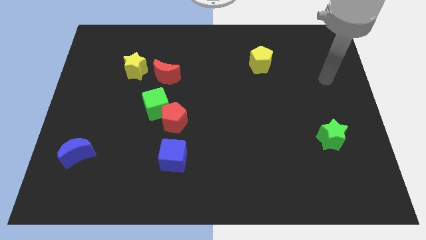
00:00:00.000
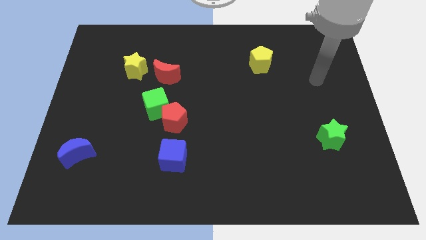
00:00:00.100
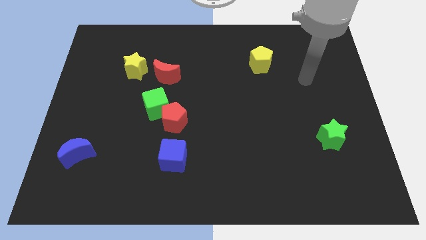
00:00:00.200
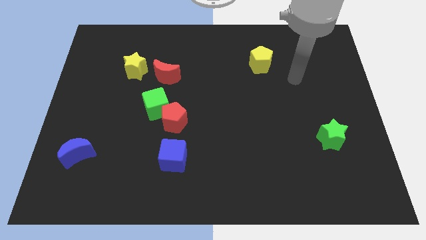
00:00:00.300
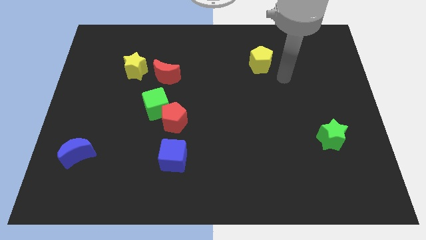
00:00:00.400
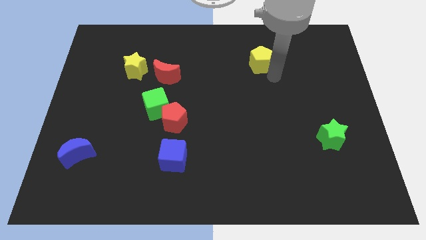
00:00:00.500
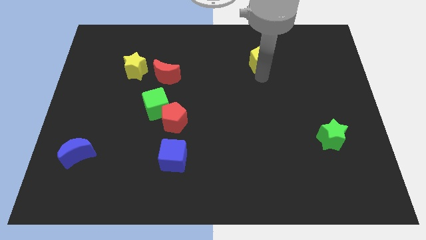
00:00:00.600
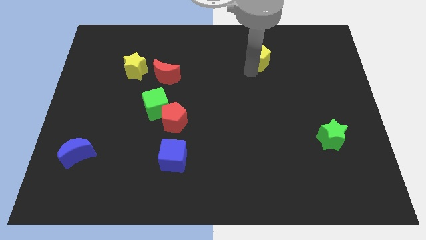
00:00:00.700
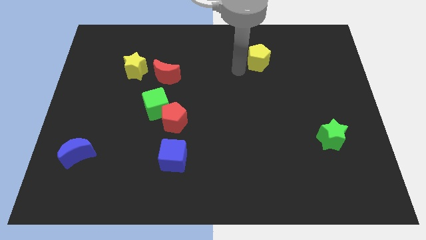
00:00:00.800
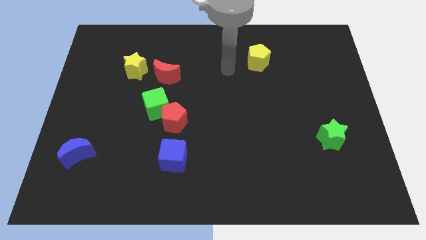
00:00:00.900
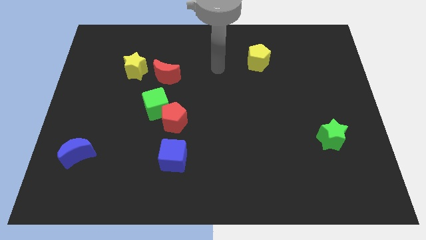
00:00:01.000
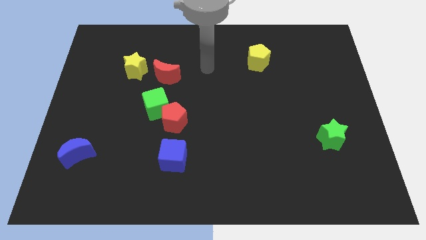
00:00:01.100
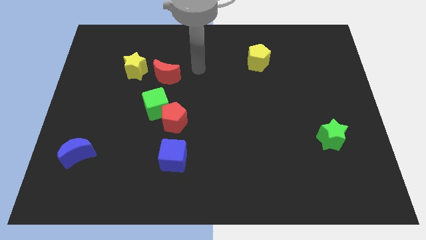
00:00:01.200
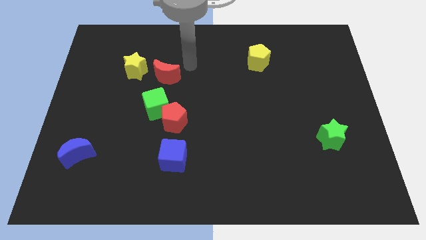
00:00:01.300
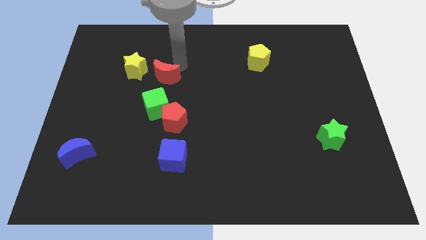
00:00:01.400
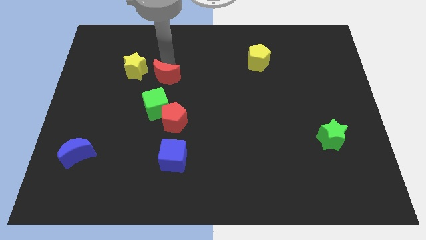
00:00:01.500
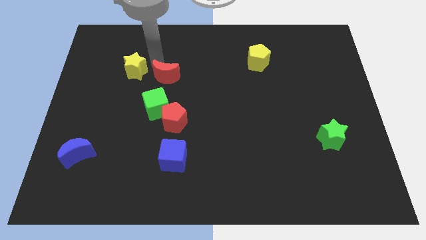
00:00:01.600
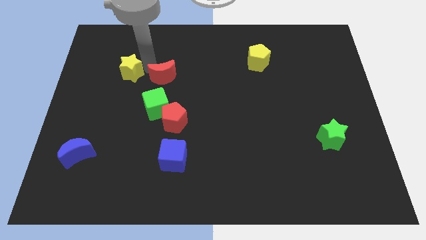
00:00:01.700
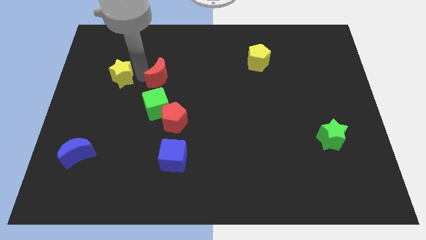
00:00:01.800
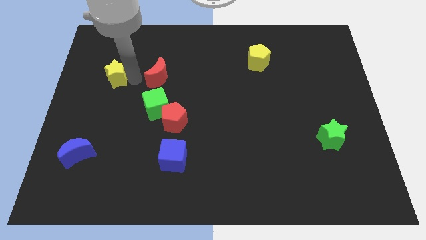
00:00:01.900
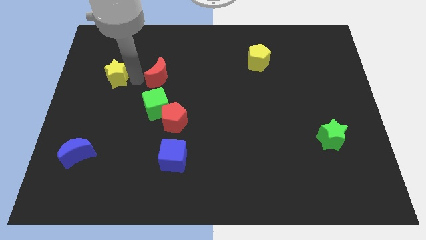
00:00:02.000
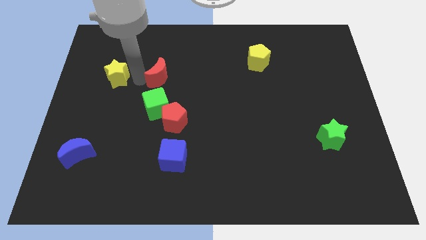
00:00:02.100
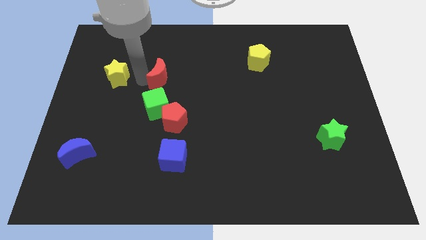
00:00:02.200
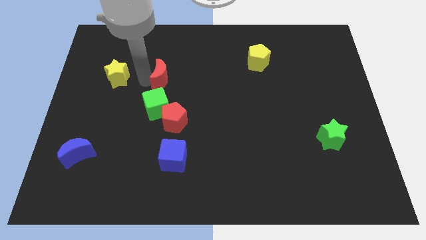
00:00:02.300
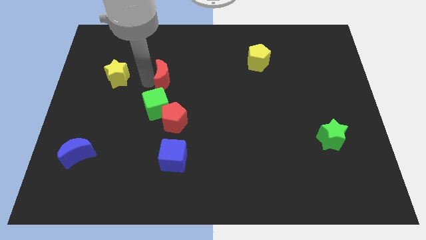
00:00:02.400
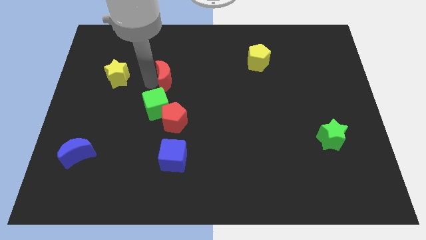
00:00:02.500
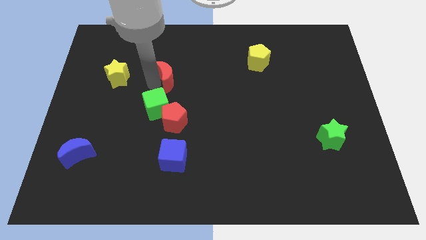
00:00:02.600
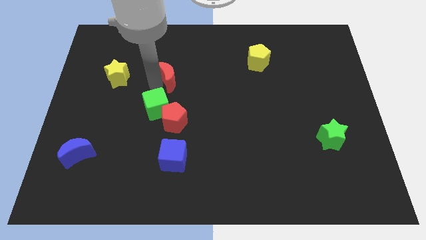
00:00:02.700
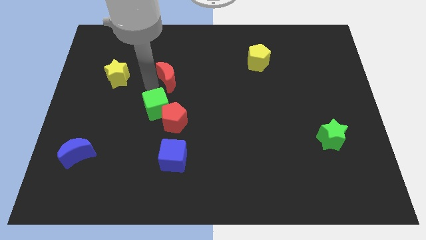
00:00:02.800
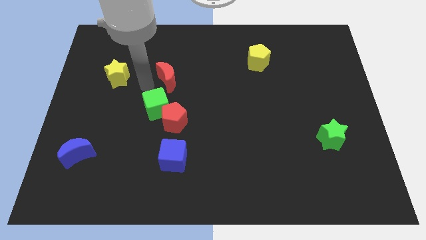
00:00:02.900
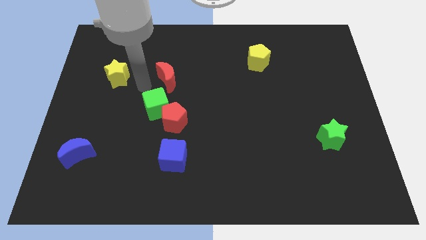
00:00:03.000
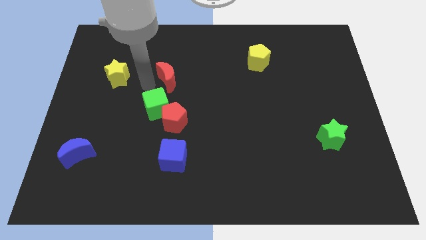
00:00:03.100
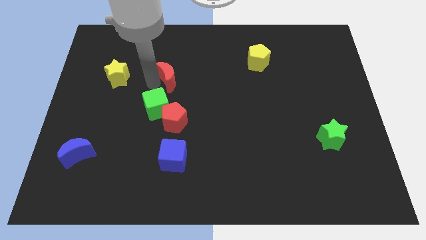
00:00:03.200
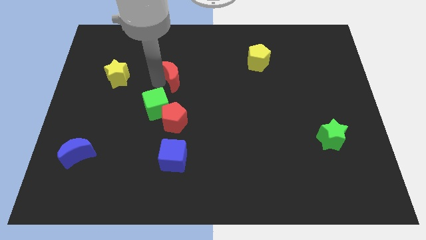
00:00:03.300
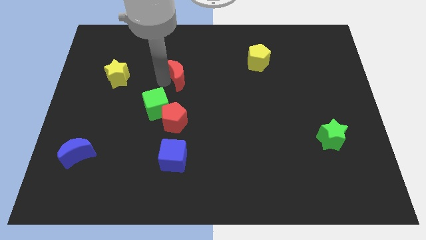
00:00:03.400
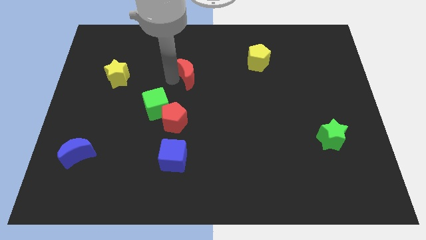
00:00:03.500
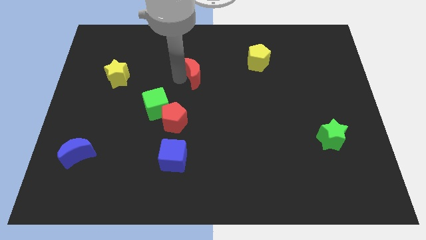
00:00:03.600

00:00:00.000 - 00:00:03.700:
slide the red moon a little right

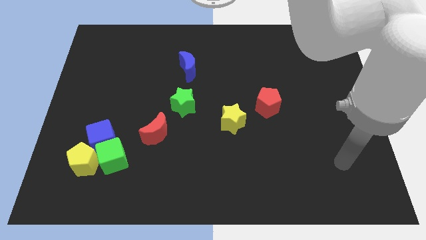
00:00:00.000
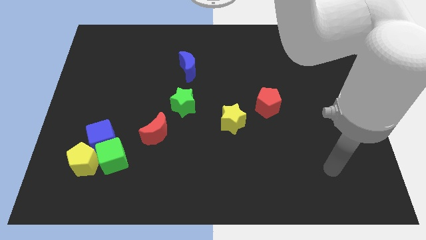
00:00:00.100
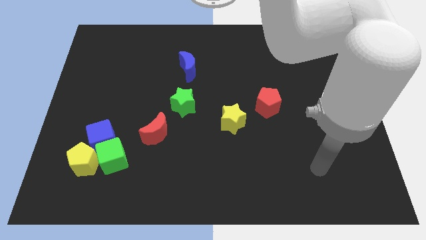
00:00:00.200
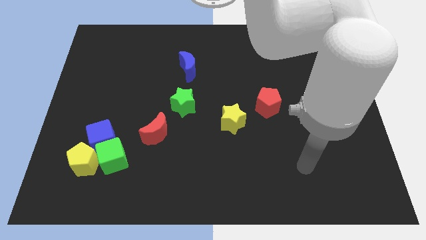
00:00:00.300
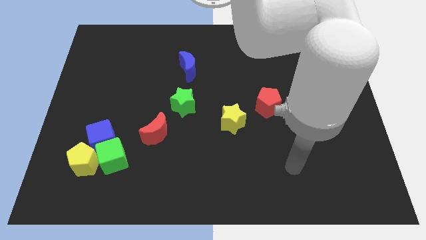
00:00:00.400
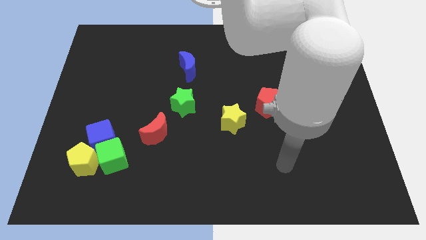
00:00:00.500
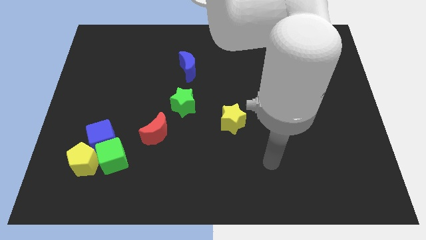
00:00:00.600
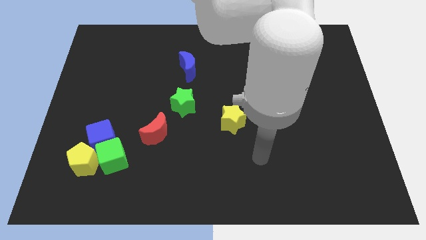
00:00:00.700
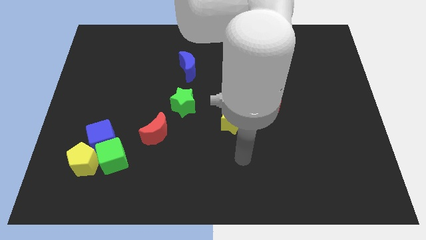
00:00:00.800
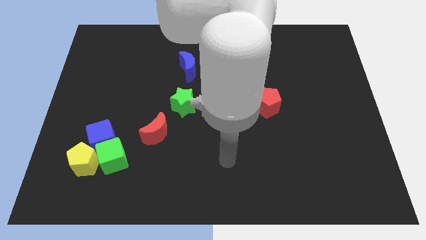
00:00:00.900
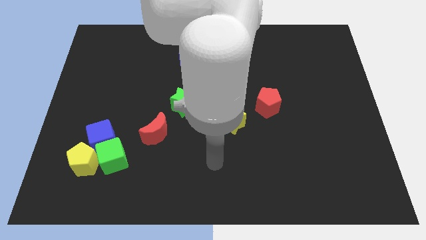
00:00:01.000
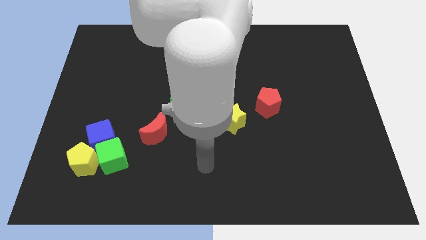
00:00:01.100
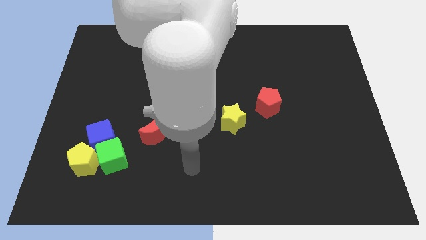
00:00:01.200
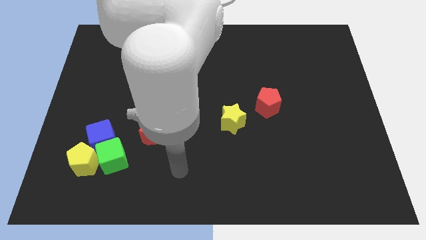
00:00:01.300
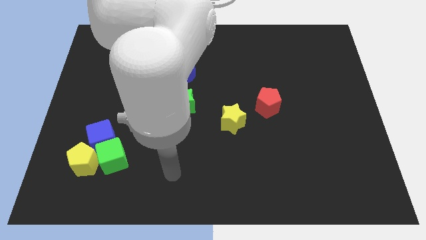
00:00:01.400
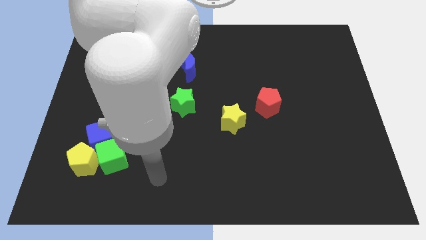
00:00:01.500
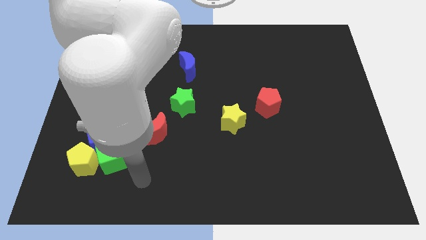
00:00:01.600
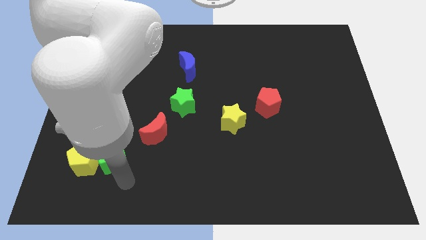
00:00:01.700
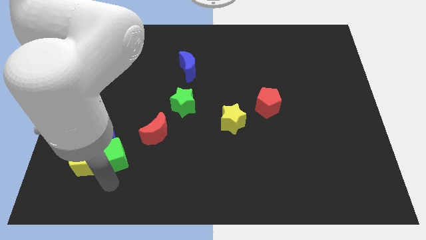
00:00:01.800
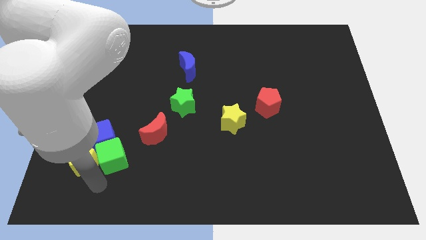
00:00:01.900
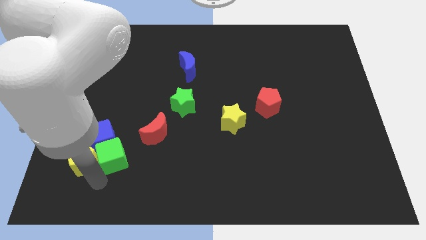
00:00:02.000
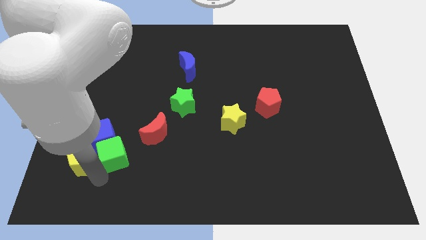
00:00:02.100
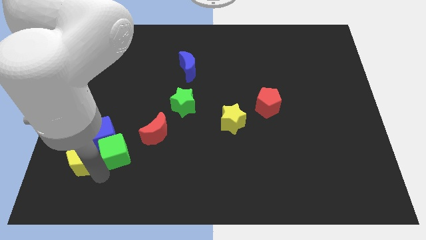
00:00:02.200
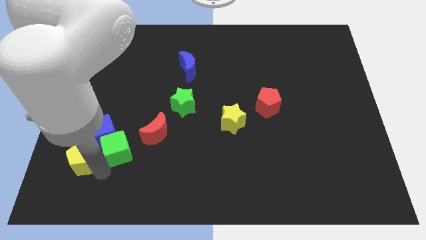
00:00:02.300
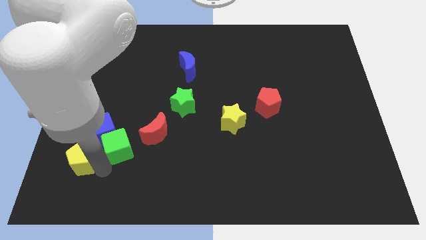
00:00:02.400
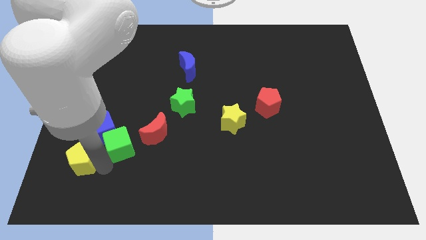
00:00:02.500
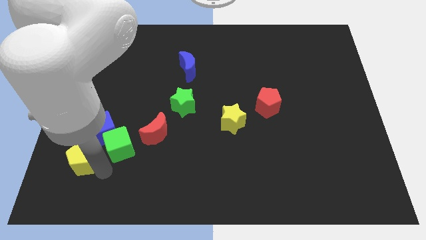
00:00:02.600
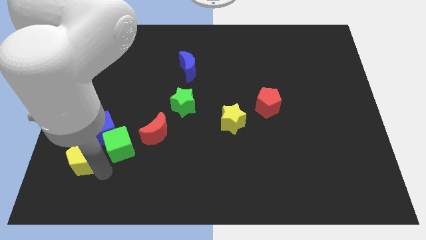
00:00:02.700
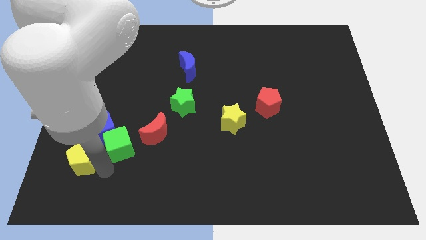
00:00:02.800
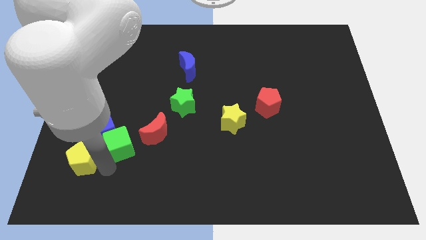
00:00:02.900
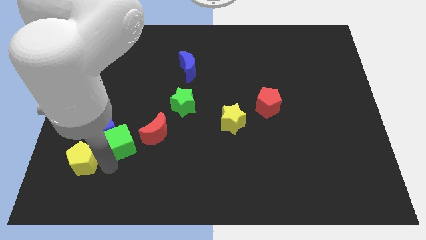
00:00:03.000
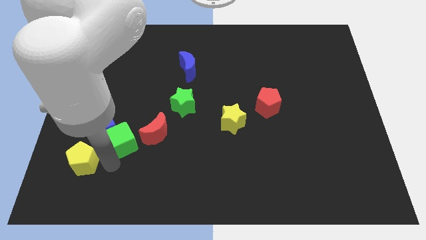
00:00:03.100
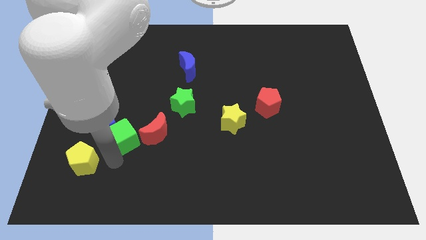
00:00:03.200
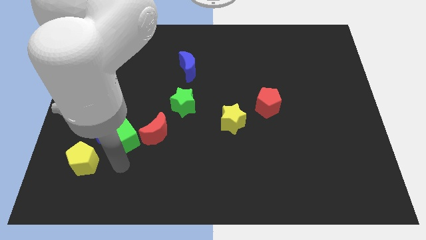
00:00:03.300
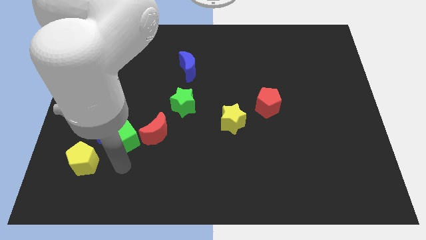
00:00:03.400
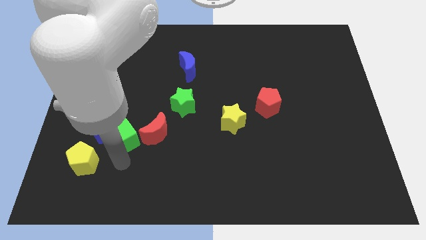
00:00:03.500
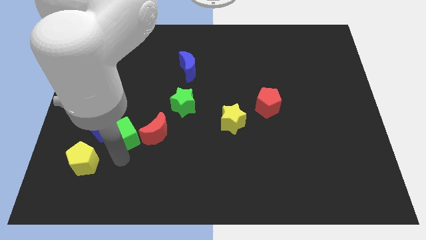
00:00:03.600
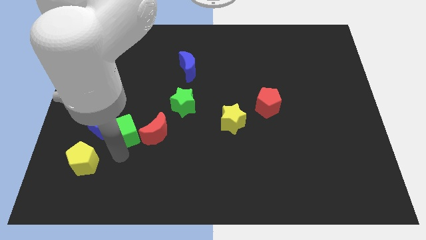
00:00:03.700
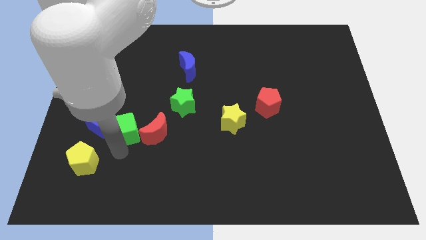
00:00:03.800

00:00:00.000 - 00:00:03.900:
push the green cube up a little

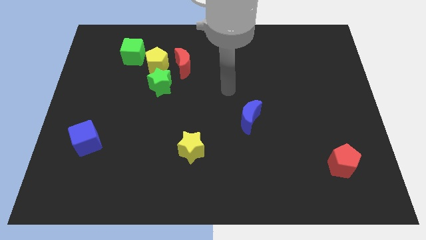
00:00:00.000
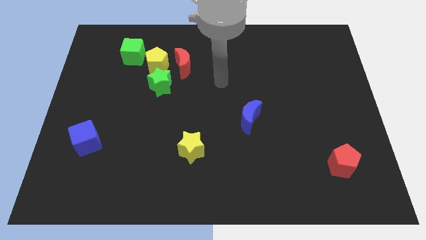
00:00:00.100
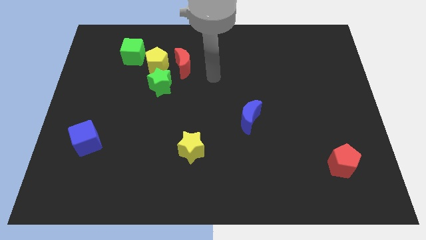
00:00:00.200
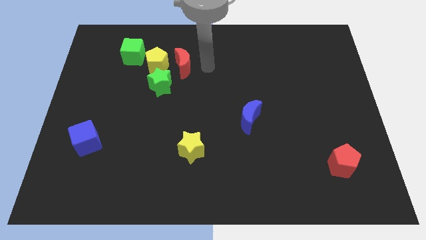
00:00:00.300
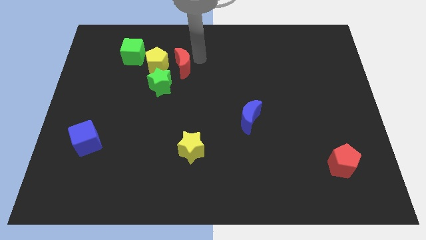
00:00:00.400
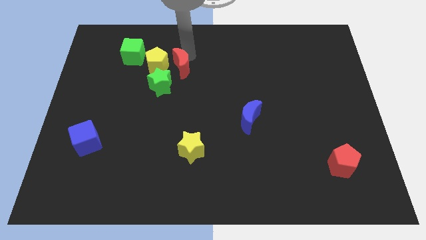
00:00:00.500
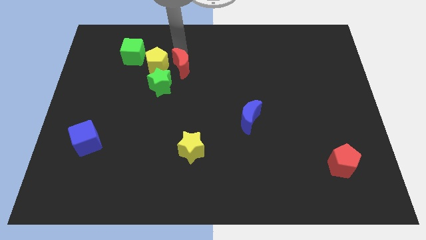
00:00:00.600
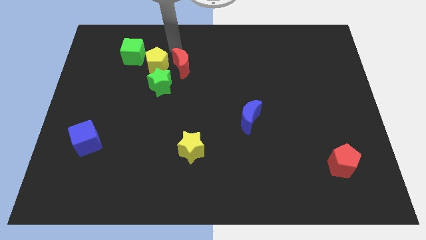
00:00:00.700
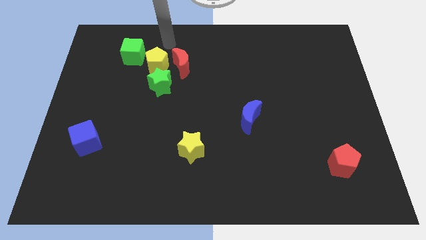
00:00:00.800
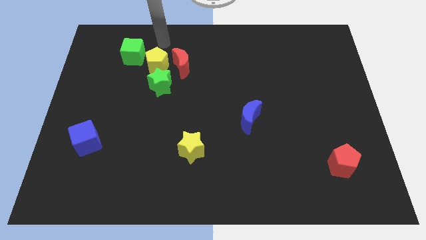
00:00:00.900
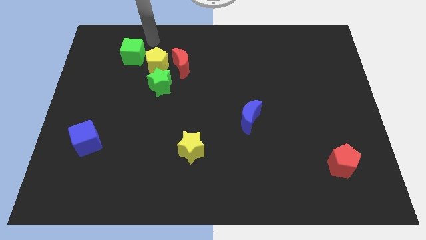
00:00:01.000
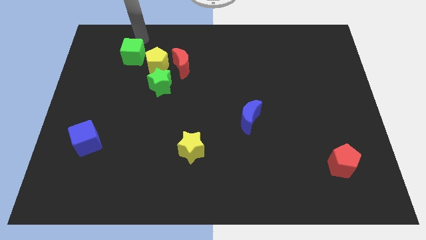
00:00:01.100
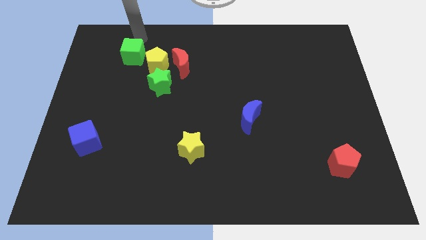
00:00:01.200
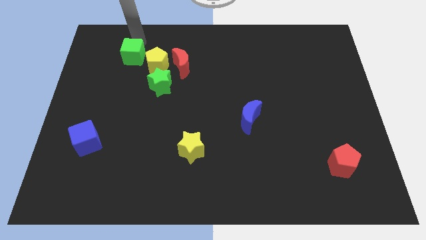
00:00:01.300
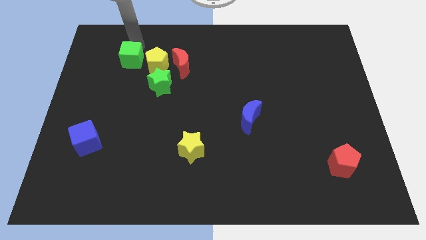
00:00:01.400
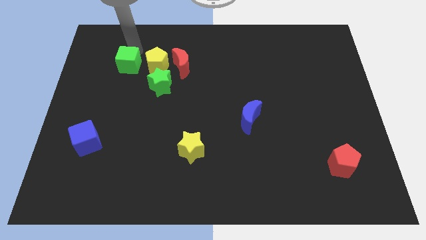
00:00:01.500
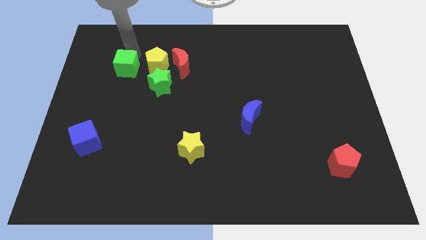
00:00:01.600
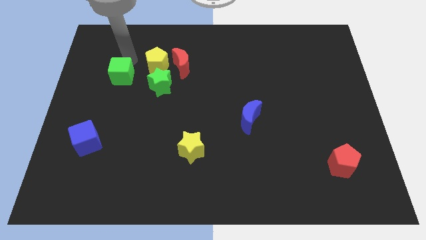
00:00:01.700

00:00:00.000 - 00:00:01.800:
slightly push the green cube downwards
